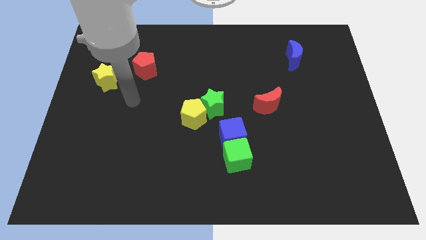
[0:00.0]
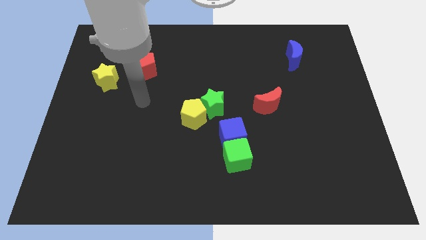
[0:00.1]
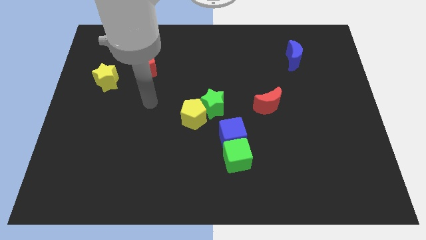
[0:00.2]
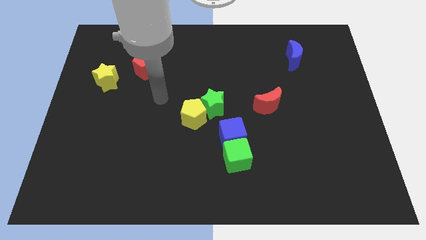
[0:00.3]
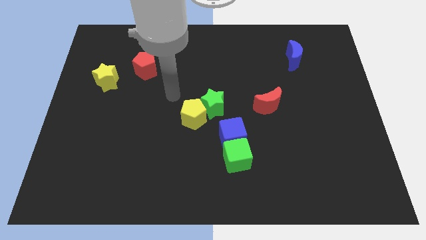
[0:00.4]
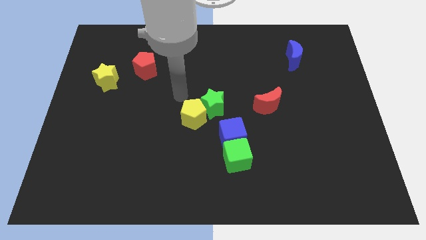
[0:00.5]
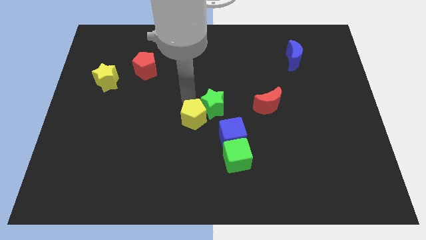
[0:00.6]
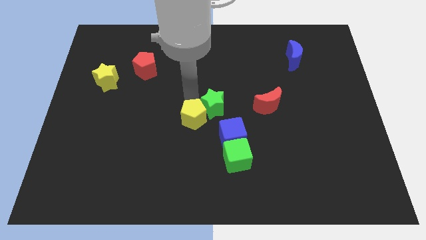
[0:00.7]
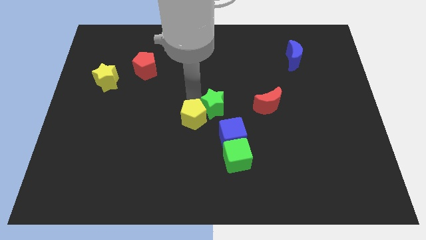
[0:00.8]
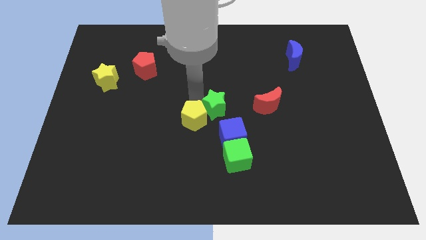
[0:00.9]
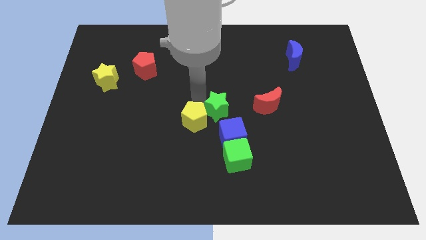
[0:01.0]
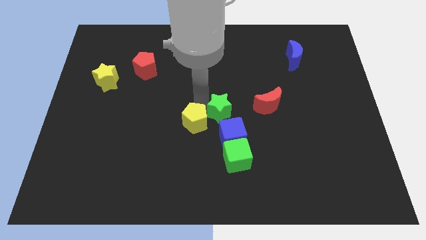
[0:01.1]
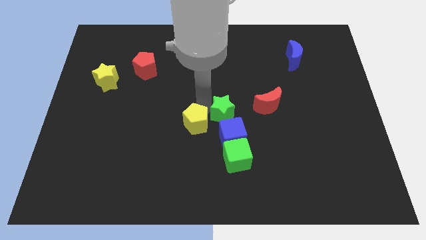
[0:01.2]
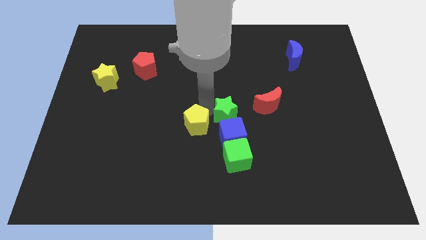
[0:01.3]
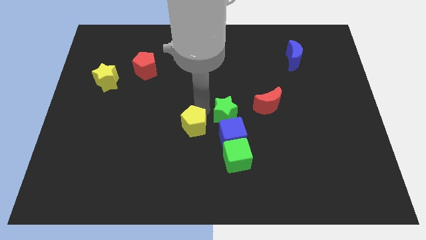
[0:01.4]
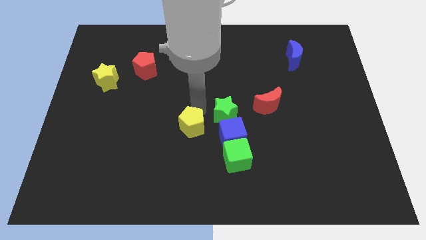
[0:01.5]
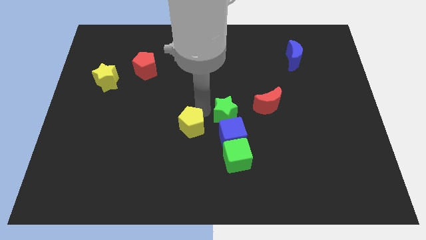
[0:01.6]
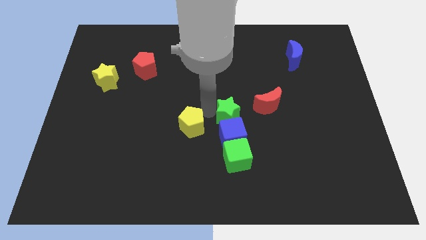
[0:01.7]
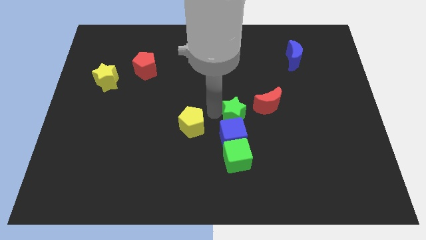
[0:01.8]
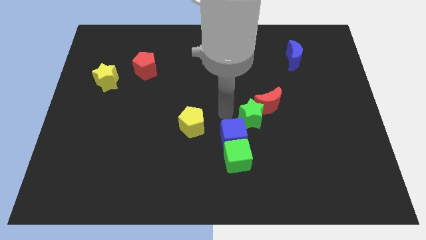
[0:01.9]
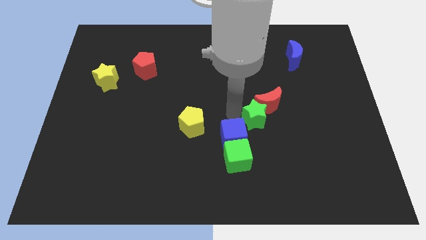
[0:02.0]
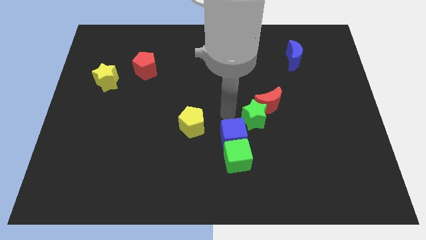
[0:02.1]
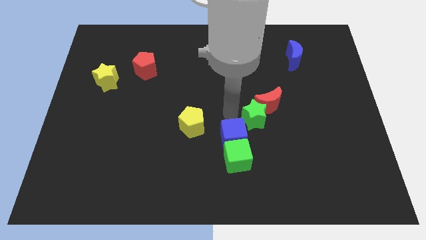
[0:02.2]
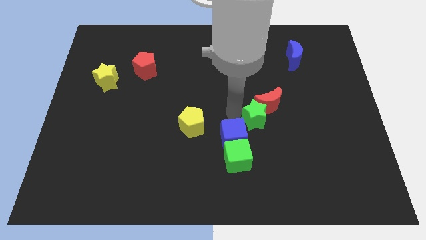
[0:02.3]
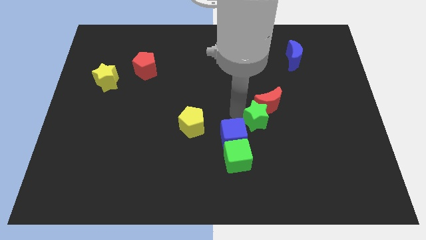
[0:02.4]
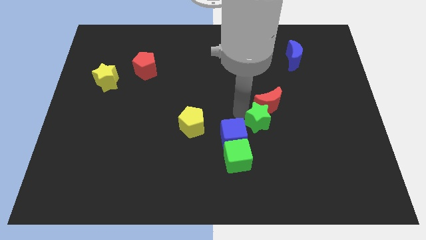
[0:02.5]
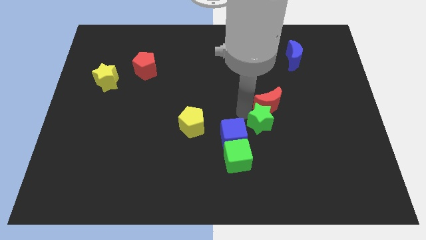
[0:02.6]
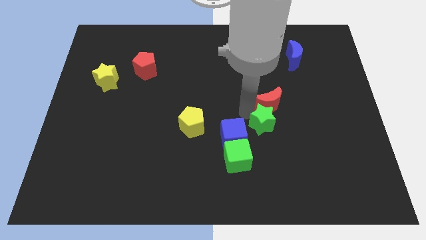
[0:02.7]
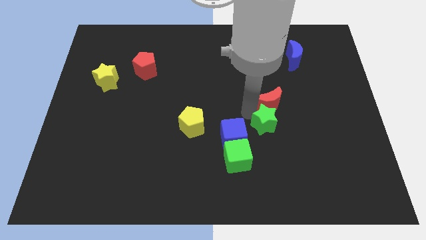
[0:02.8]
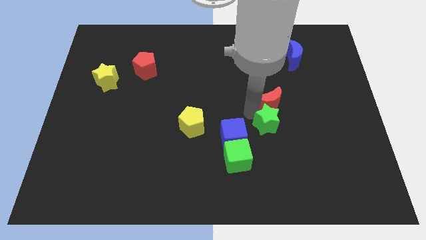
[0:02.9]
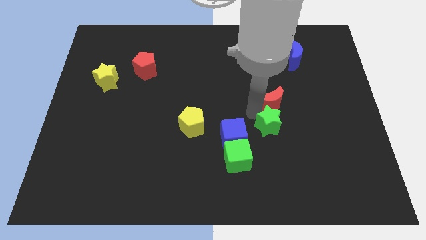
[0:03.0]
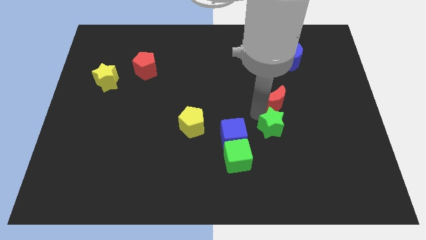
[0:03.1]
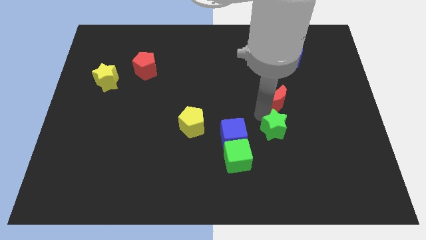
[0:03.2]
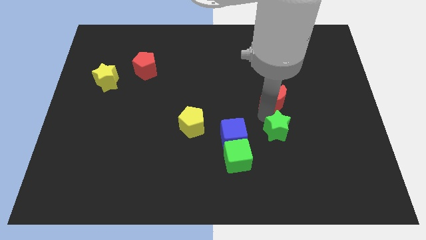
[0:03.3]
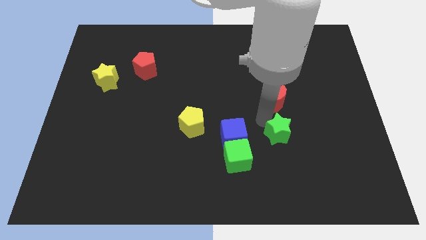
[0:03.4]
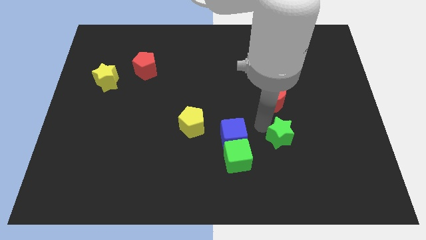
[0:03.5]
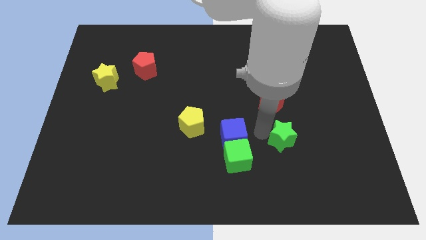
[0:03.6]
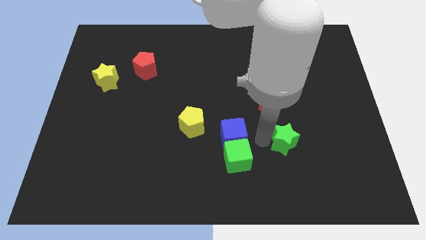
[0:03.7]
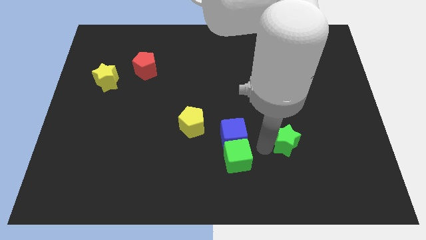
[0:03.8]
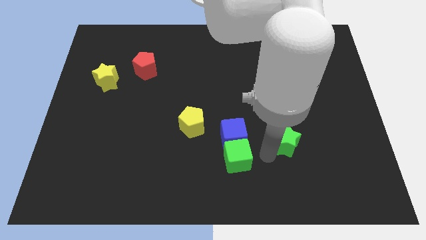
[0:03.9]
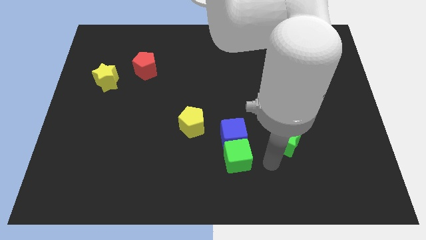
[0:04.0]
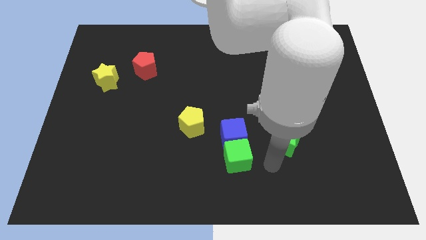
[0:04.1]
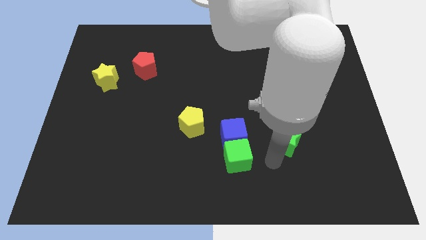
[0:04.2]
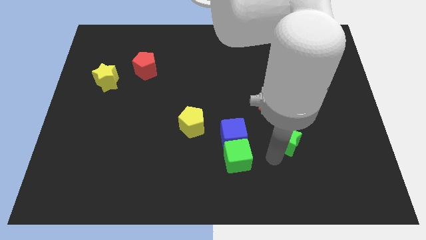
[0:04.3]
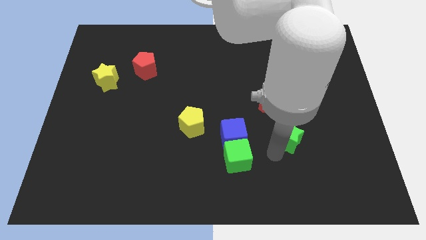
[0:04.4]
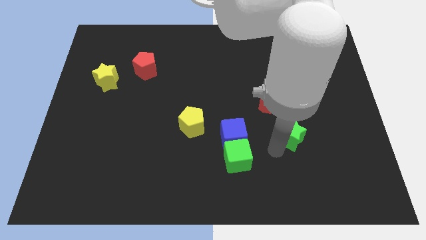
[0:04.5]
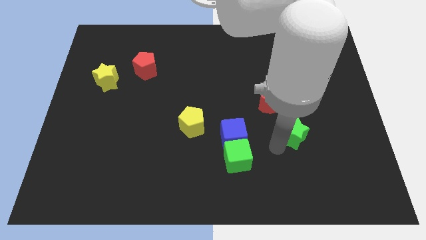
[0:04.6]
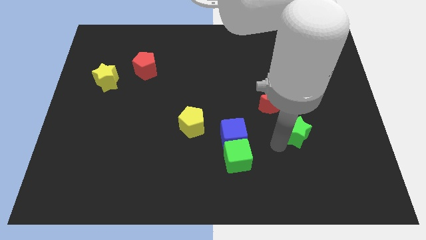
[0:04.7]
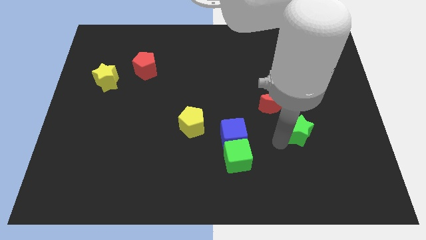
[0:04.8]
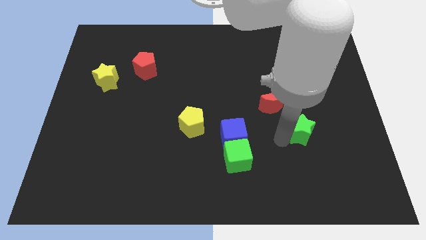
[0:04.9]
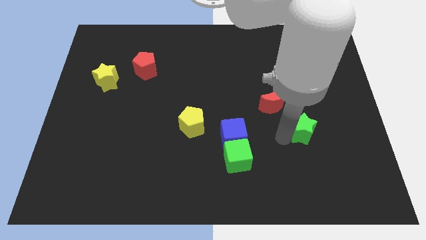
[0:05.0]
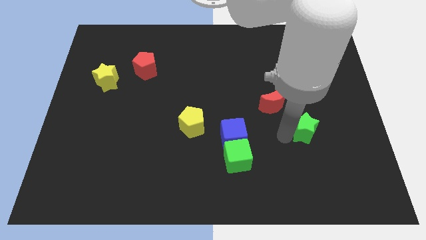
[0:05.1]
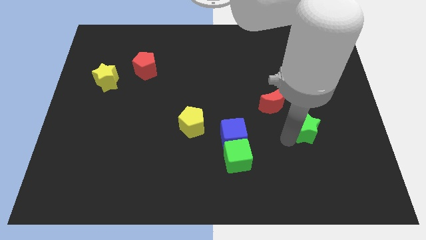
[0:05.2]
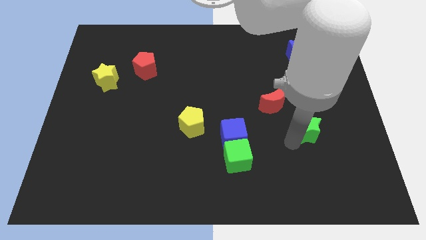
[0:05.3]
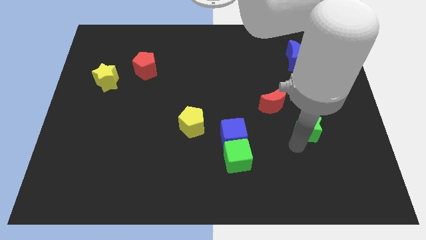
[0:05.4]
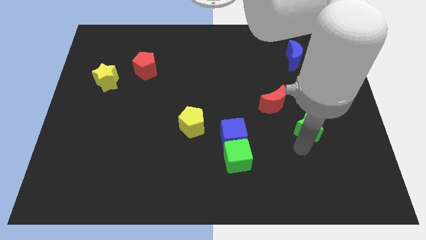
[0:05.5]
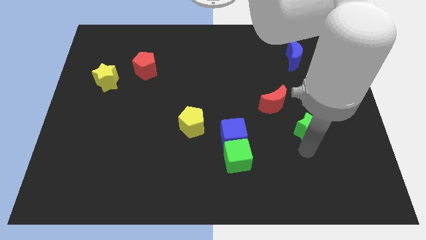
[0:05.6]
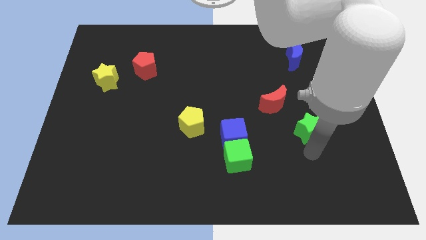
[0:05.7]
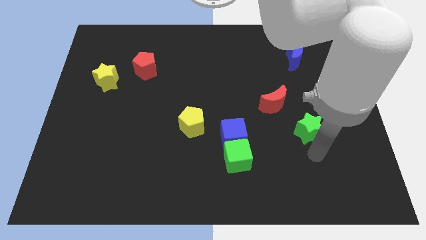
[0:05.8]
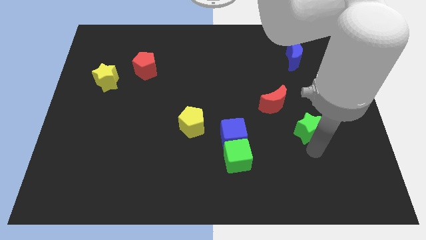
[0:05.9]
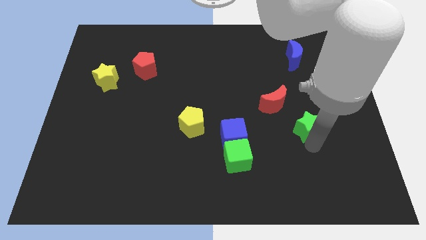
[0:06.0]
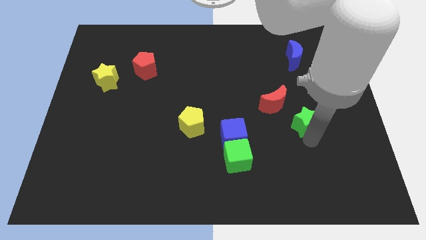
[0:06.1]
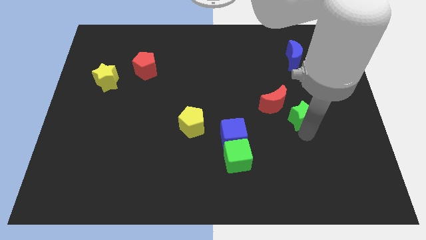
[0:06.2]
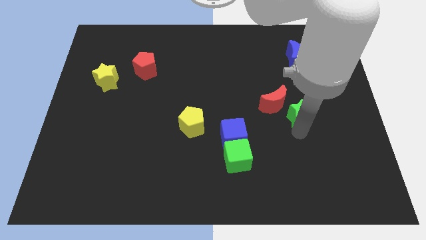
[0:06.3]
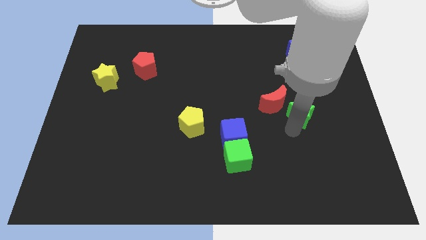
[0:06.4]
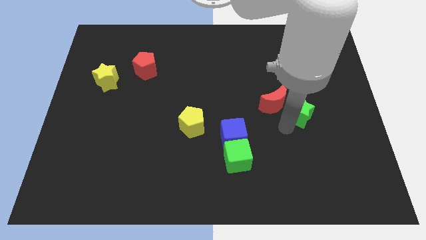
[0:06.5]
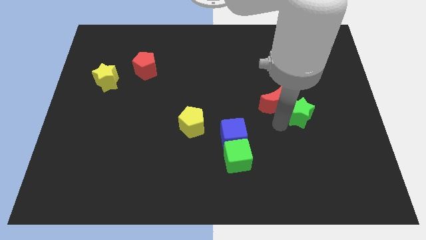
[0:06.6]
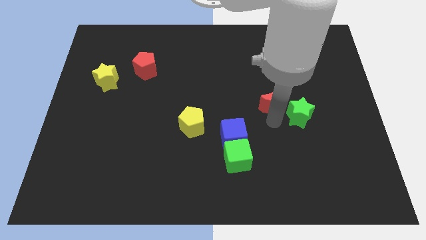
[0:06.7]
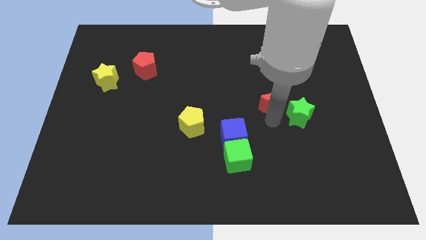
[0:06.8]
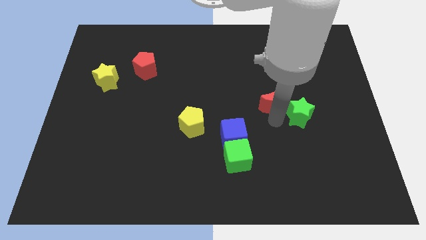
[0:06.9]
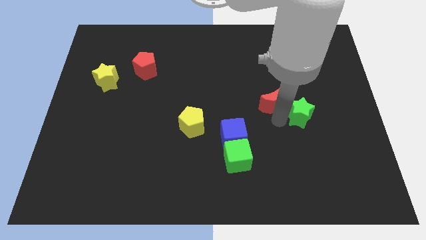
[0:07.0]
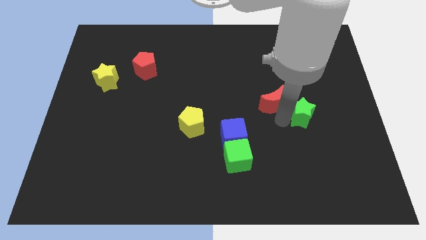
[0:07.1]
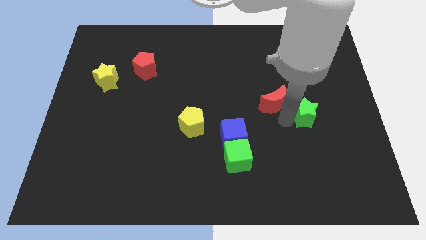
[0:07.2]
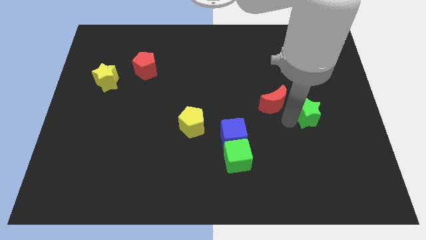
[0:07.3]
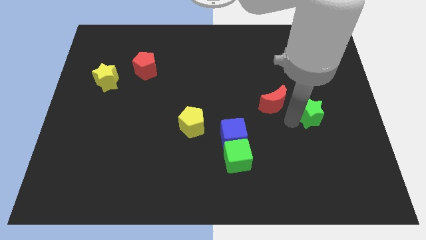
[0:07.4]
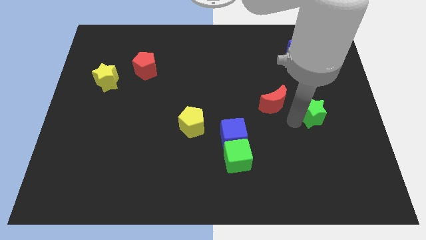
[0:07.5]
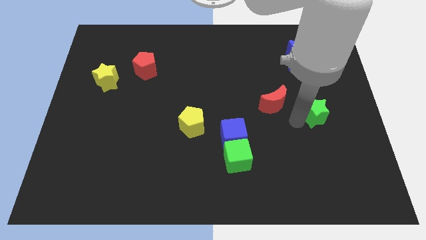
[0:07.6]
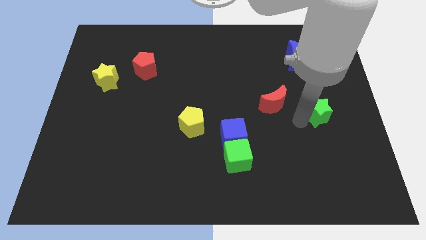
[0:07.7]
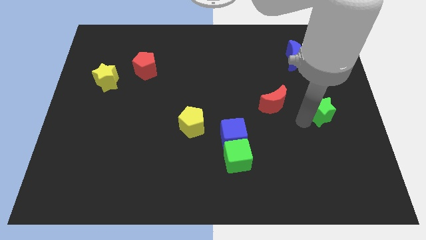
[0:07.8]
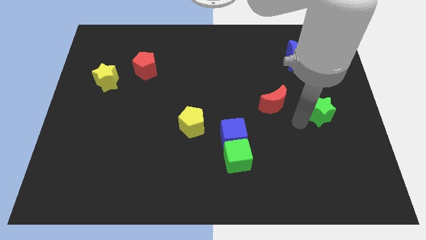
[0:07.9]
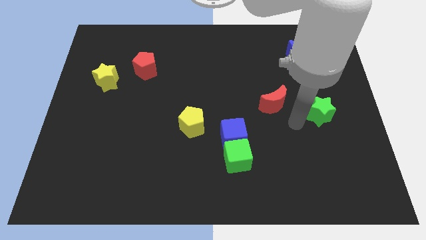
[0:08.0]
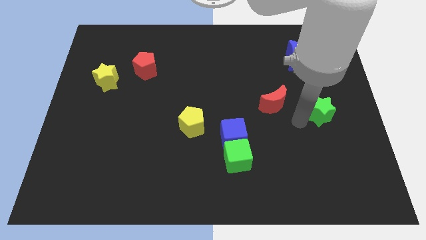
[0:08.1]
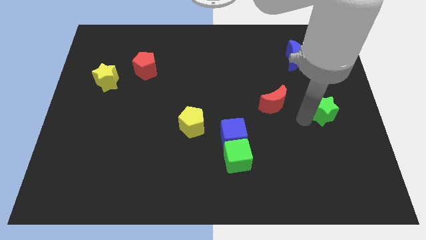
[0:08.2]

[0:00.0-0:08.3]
move the green star to the right side
